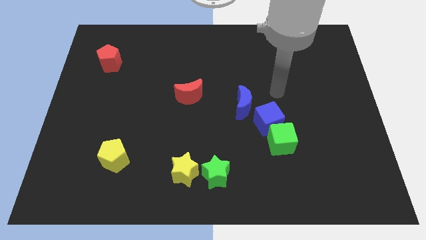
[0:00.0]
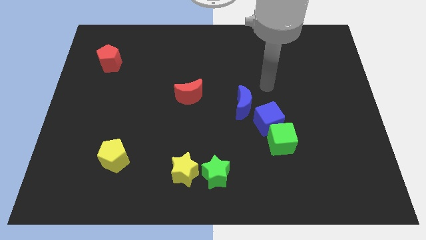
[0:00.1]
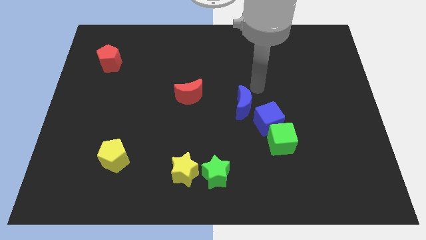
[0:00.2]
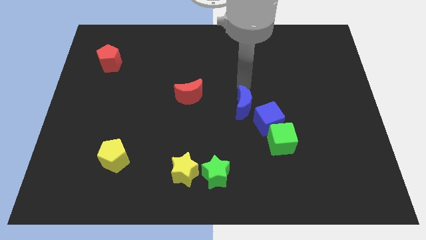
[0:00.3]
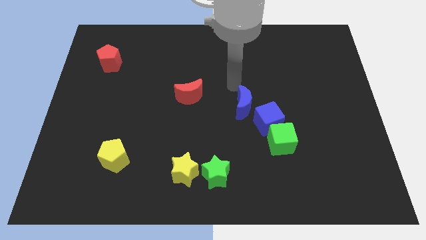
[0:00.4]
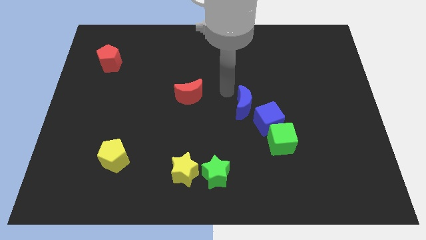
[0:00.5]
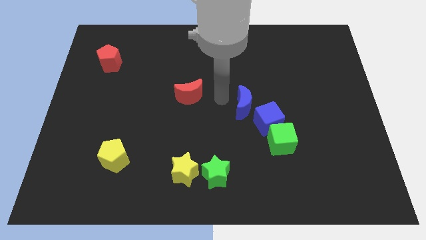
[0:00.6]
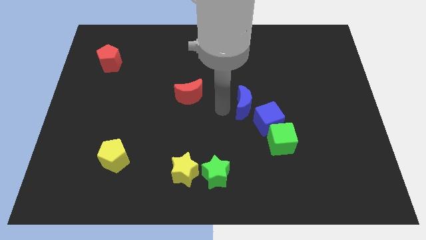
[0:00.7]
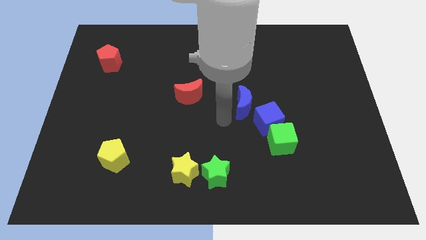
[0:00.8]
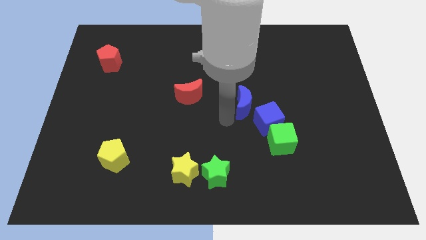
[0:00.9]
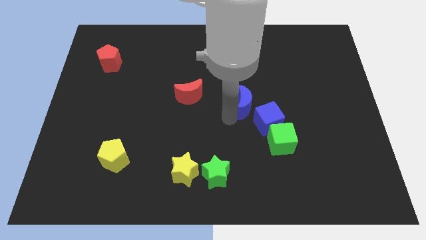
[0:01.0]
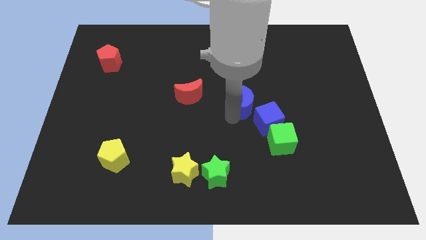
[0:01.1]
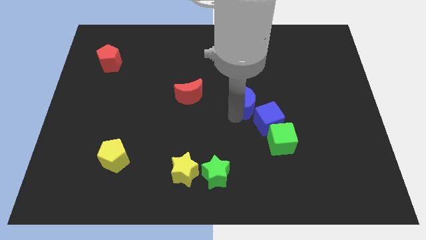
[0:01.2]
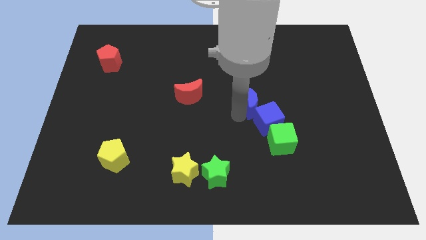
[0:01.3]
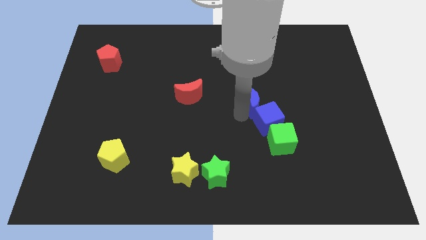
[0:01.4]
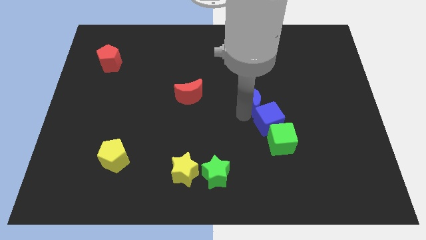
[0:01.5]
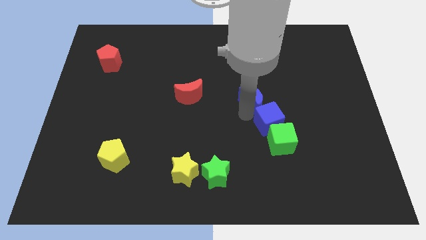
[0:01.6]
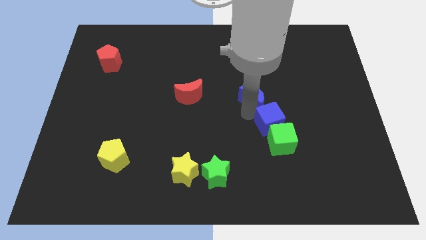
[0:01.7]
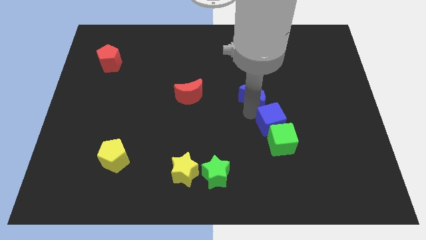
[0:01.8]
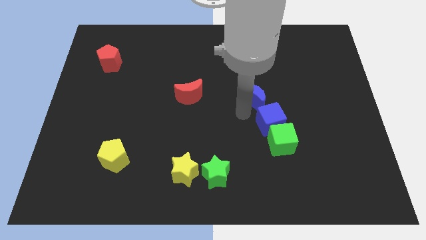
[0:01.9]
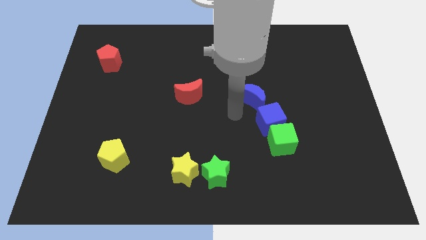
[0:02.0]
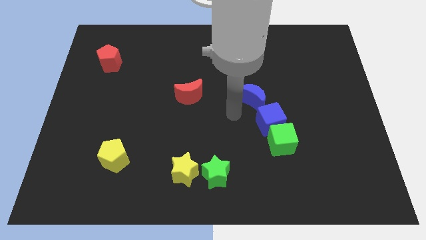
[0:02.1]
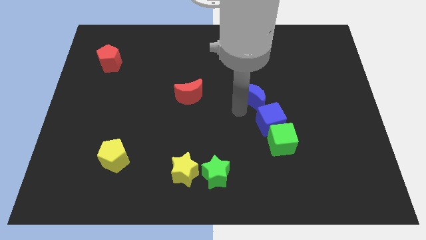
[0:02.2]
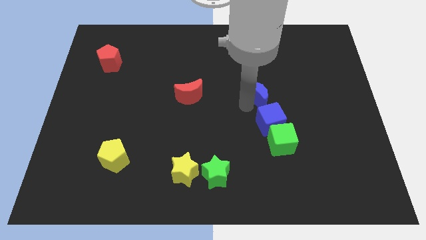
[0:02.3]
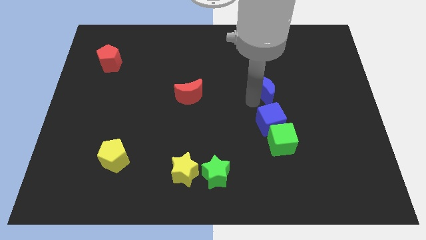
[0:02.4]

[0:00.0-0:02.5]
push the blue moon slightly diagonally up and right

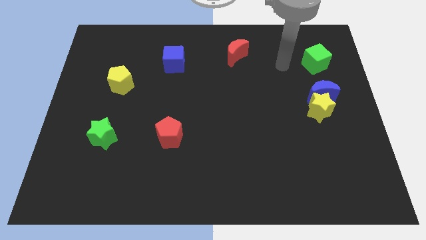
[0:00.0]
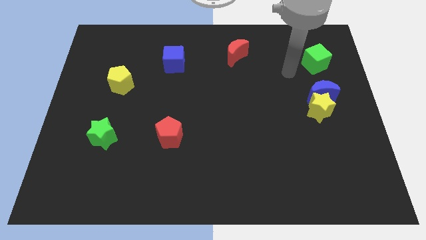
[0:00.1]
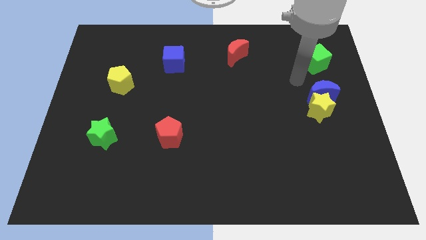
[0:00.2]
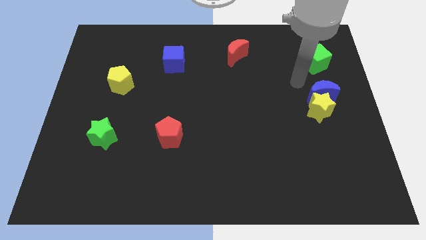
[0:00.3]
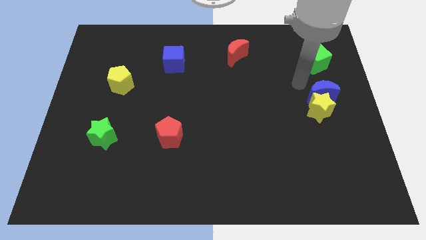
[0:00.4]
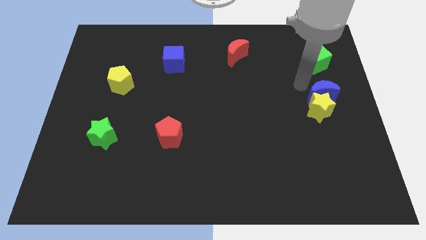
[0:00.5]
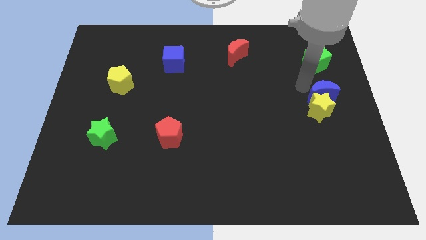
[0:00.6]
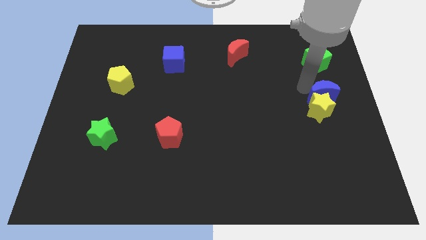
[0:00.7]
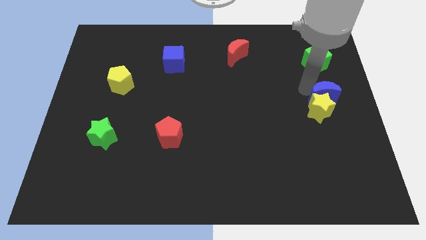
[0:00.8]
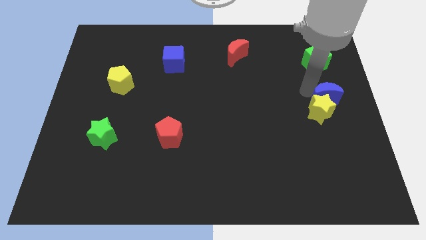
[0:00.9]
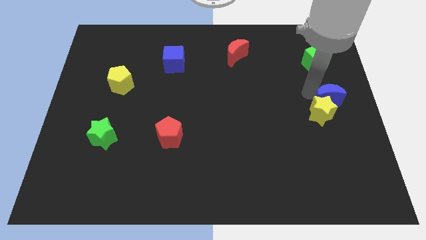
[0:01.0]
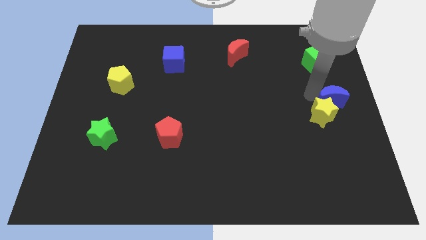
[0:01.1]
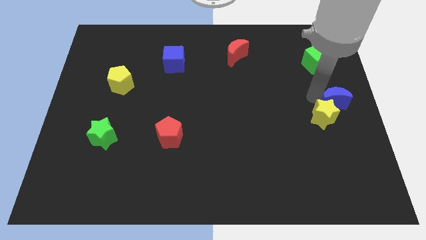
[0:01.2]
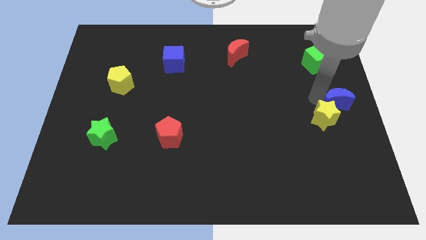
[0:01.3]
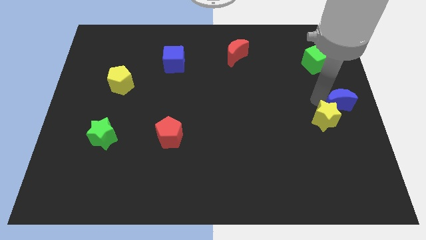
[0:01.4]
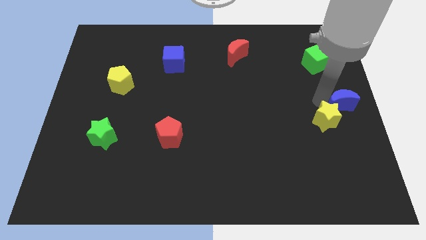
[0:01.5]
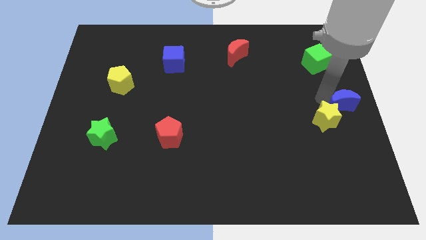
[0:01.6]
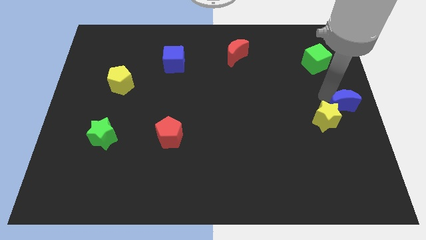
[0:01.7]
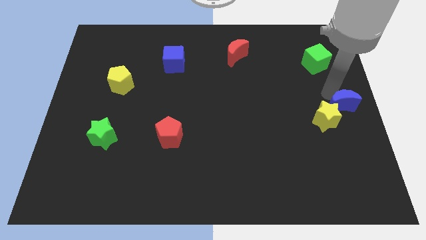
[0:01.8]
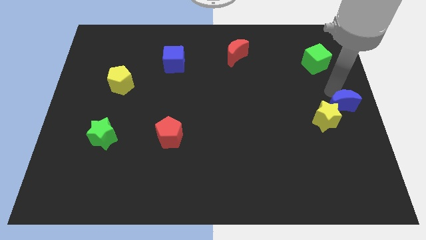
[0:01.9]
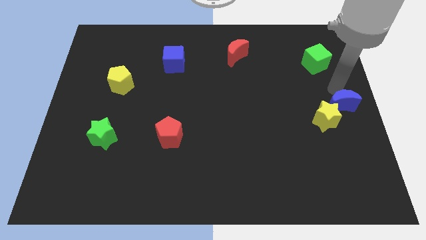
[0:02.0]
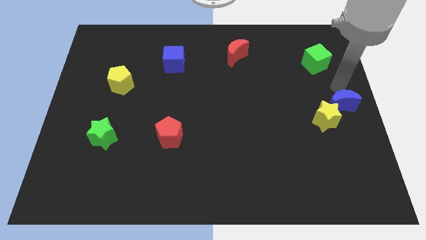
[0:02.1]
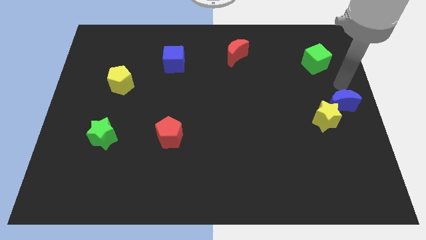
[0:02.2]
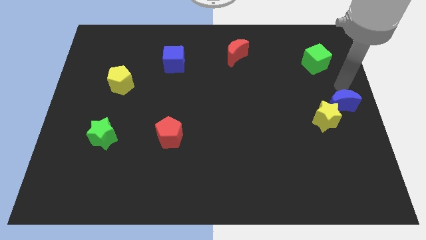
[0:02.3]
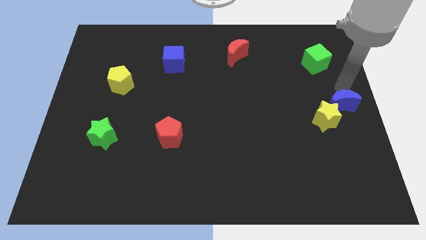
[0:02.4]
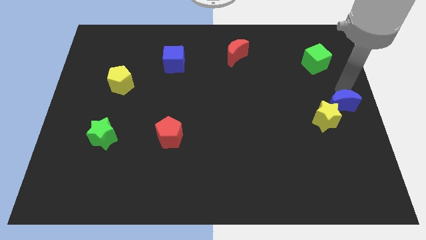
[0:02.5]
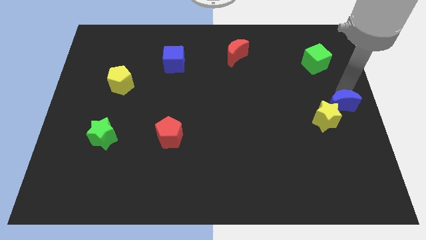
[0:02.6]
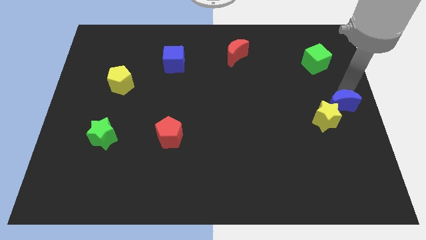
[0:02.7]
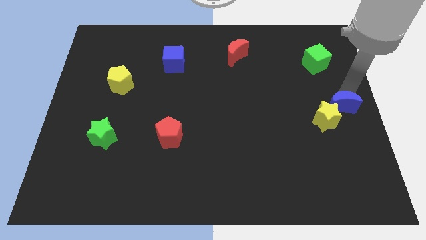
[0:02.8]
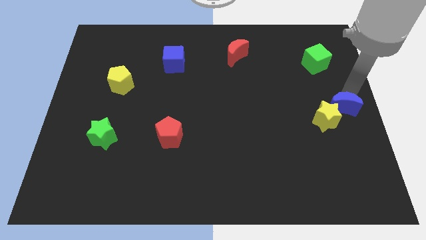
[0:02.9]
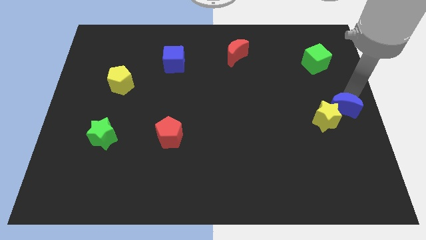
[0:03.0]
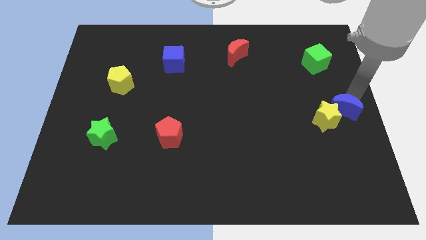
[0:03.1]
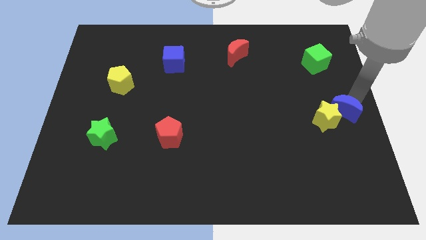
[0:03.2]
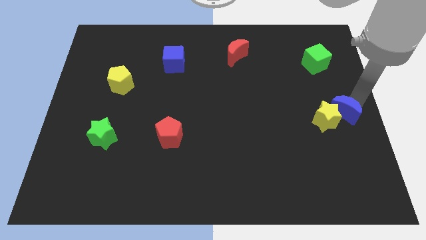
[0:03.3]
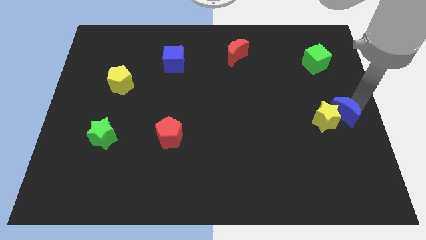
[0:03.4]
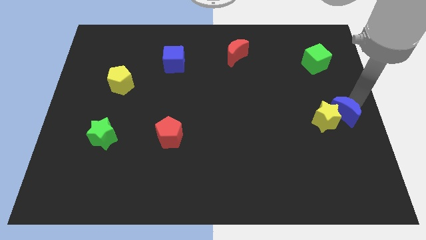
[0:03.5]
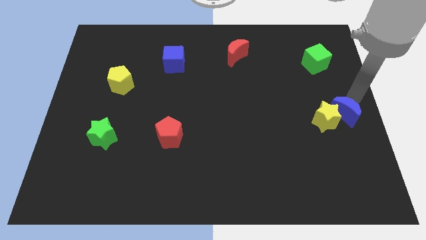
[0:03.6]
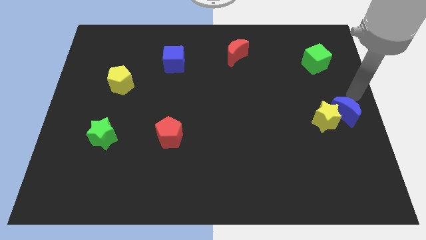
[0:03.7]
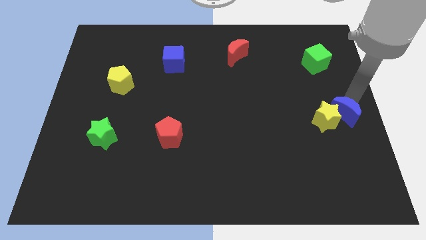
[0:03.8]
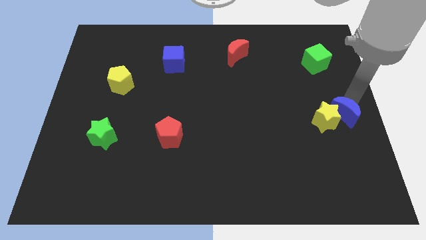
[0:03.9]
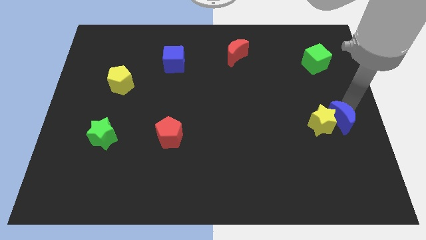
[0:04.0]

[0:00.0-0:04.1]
slide the blue moon down a little

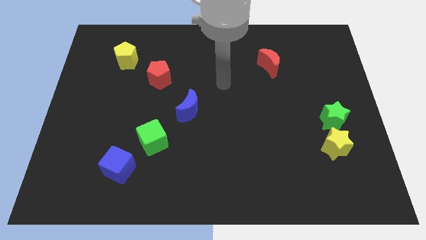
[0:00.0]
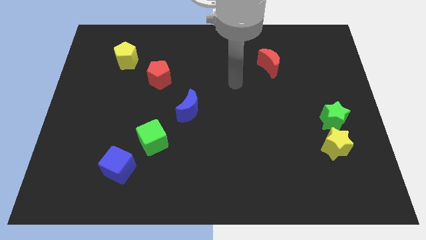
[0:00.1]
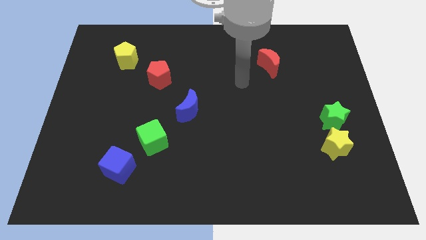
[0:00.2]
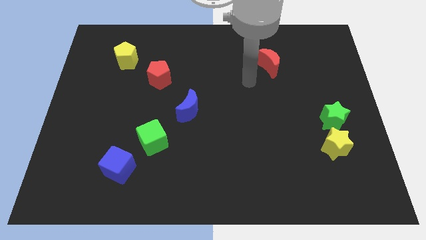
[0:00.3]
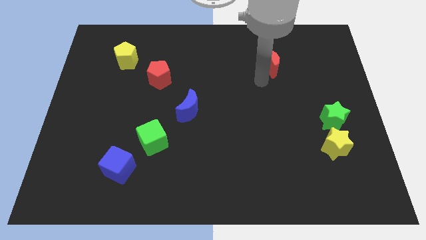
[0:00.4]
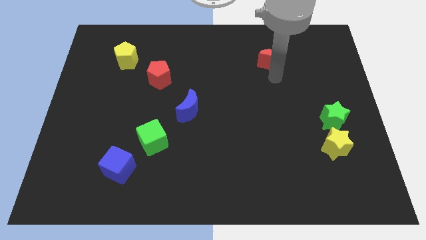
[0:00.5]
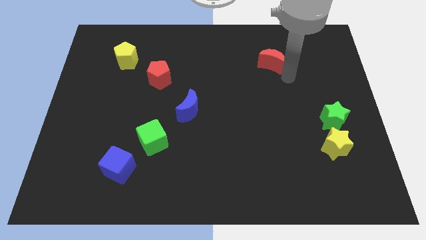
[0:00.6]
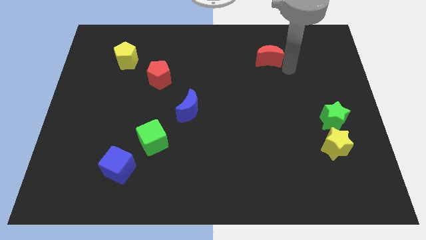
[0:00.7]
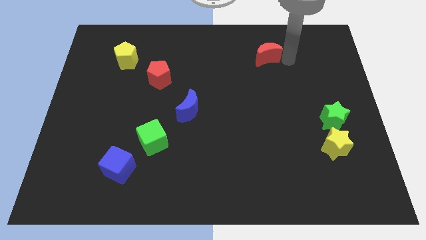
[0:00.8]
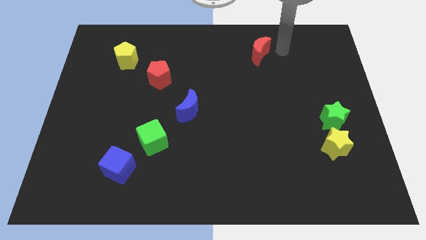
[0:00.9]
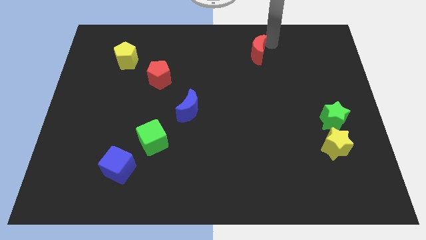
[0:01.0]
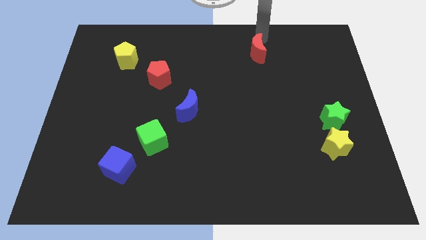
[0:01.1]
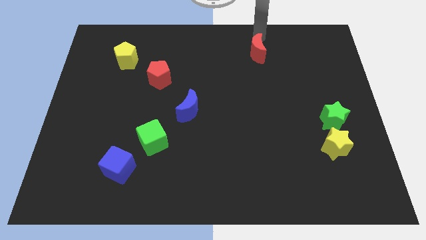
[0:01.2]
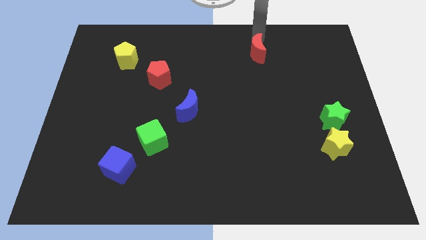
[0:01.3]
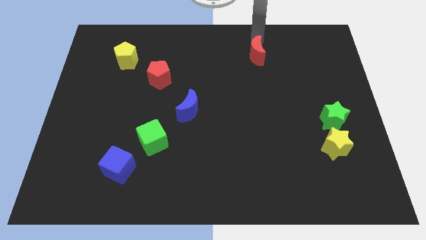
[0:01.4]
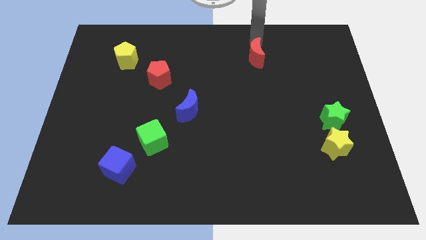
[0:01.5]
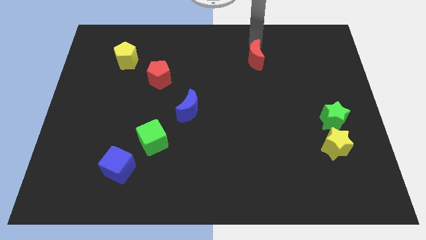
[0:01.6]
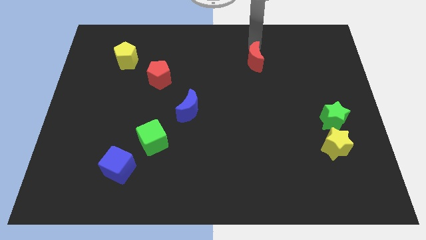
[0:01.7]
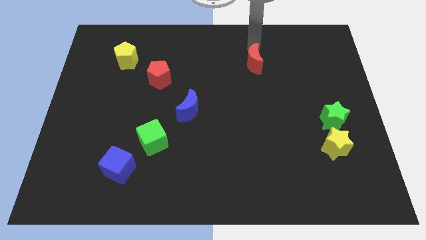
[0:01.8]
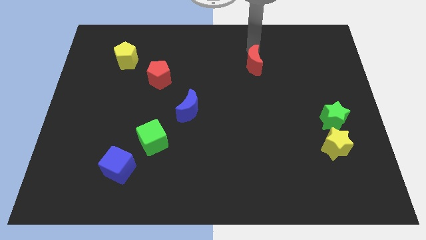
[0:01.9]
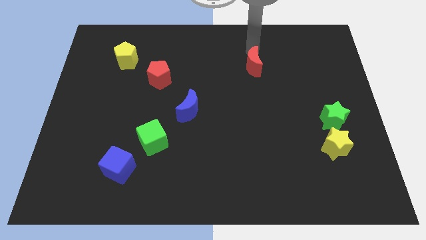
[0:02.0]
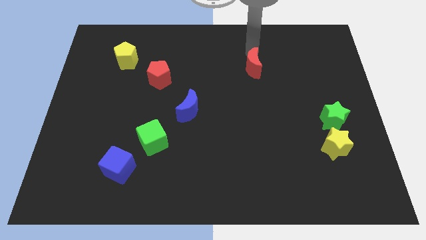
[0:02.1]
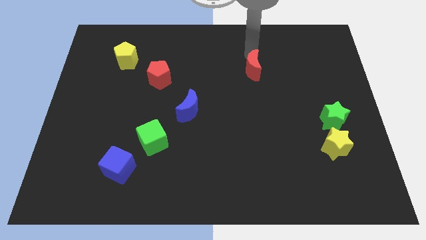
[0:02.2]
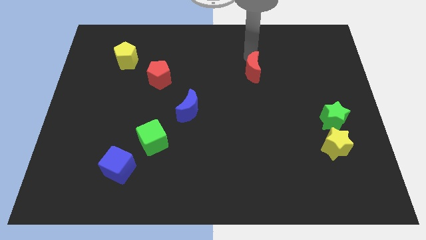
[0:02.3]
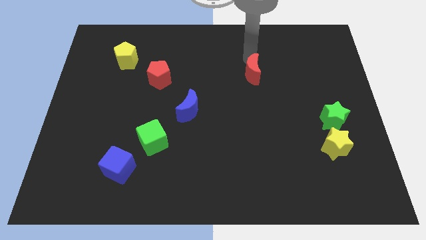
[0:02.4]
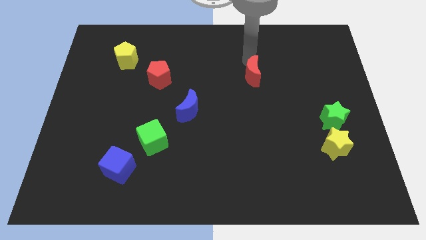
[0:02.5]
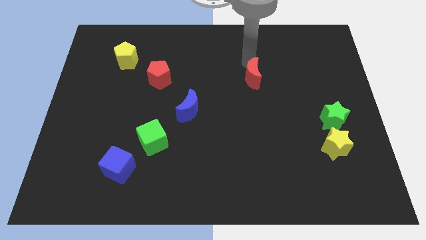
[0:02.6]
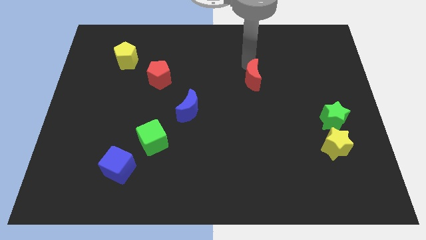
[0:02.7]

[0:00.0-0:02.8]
slide the red moon diagonally downwards and to the left slightly
